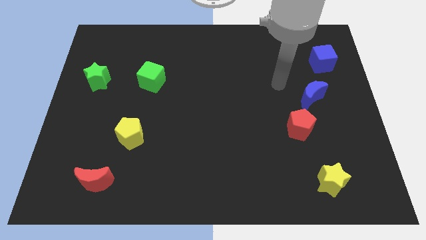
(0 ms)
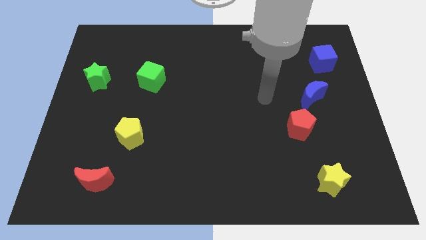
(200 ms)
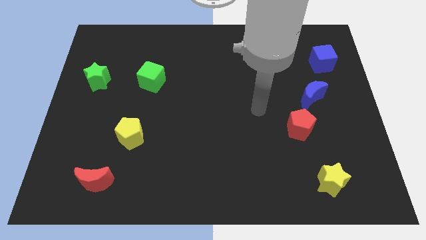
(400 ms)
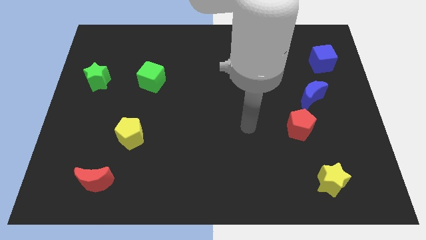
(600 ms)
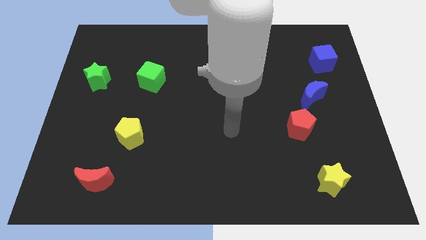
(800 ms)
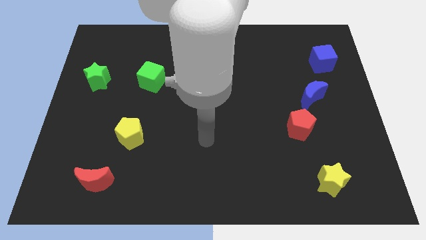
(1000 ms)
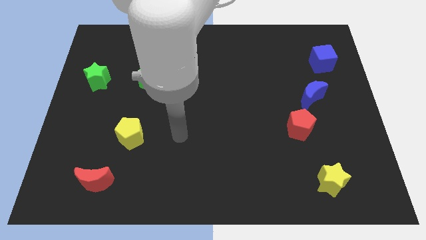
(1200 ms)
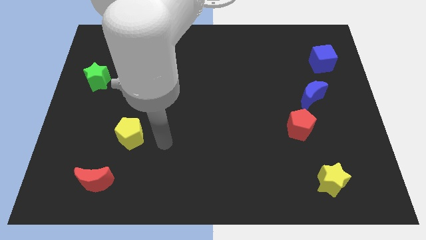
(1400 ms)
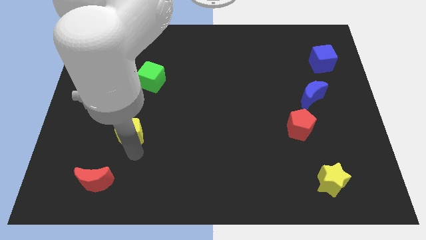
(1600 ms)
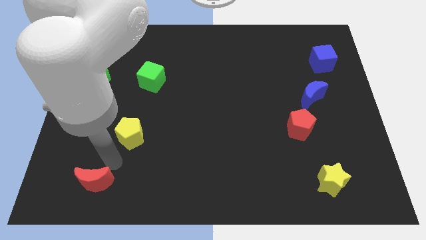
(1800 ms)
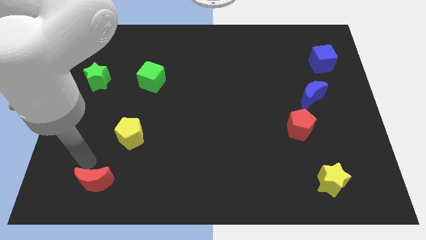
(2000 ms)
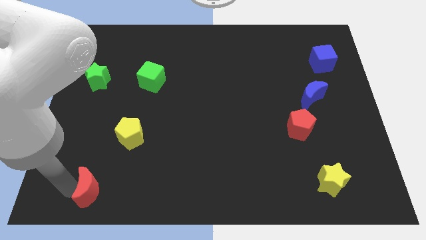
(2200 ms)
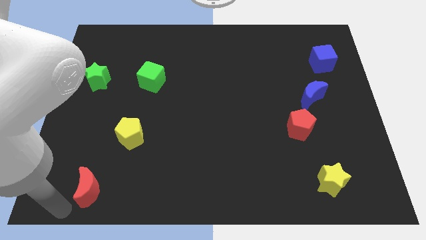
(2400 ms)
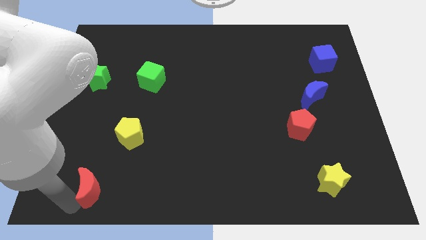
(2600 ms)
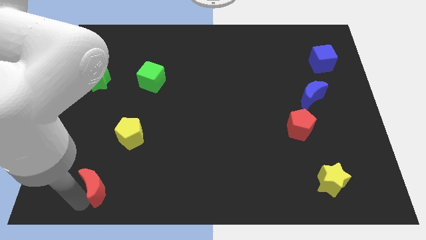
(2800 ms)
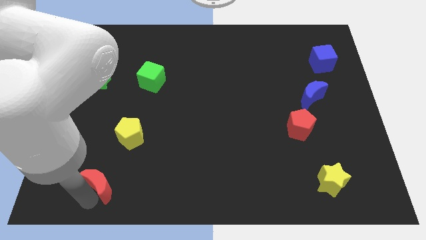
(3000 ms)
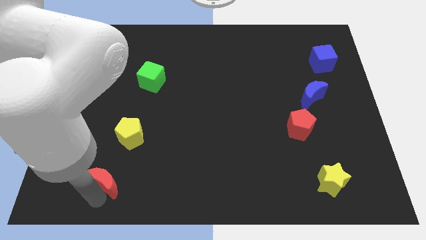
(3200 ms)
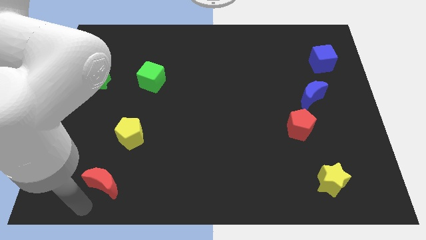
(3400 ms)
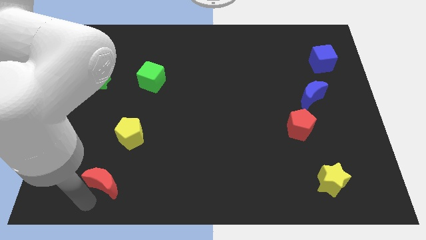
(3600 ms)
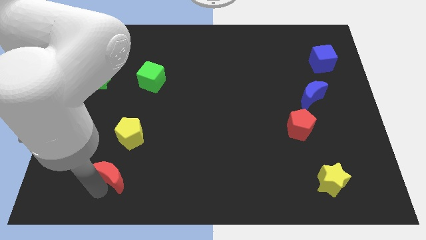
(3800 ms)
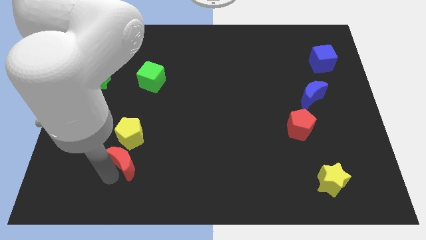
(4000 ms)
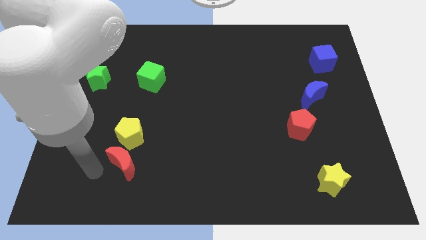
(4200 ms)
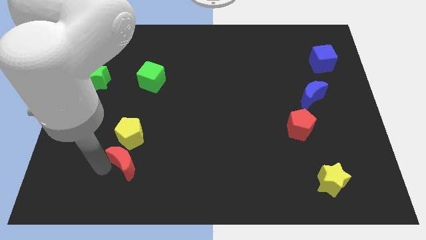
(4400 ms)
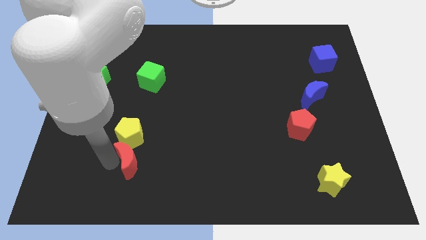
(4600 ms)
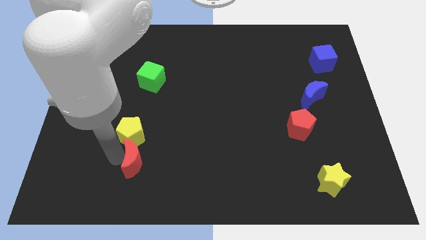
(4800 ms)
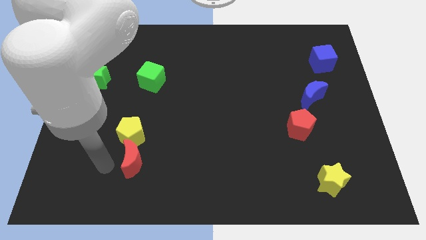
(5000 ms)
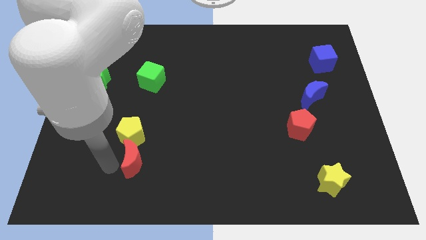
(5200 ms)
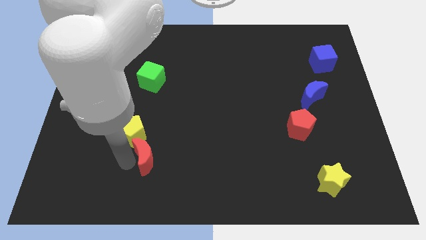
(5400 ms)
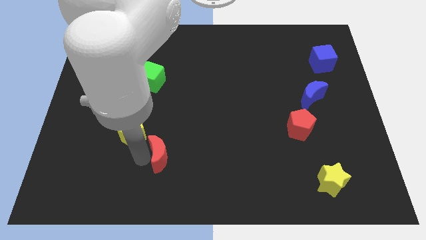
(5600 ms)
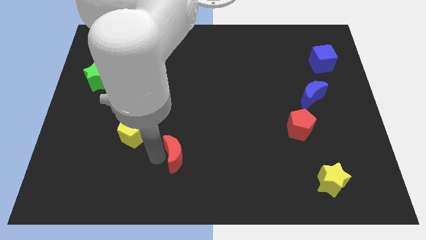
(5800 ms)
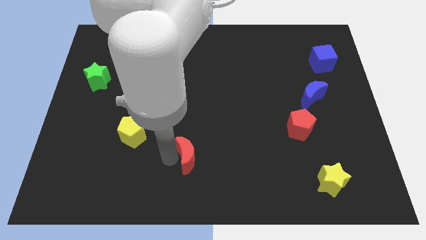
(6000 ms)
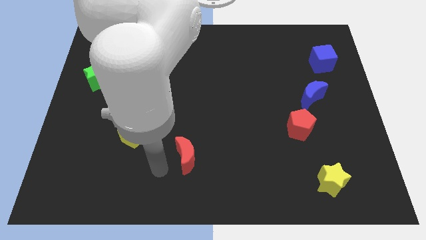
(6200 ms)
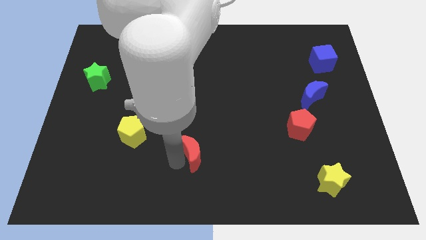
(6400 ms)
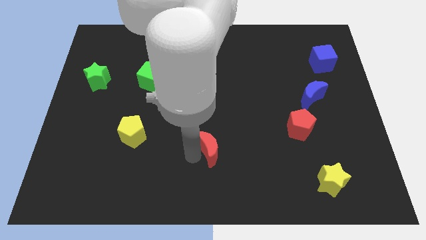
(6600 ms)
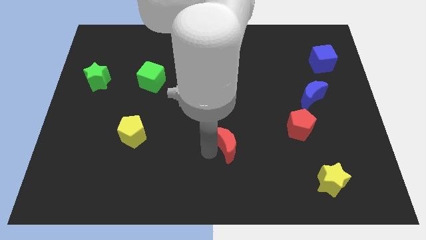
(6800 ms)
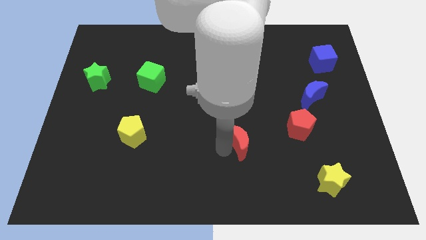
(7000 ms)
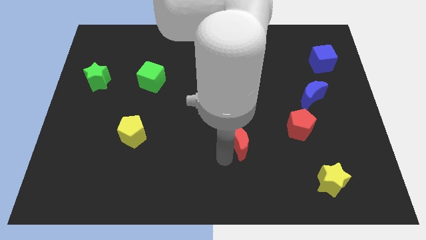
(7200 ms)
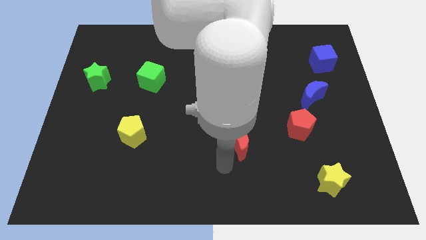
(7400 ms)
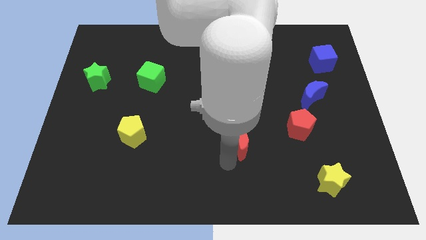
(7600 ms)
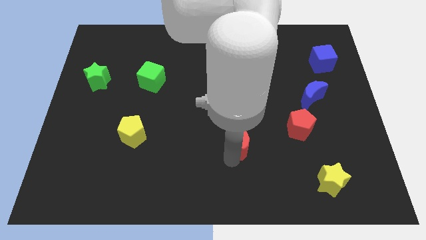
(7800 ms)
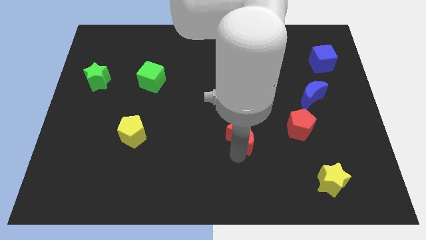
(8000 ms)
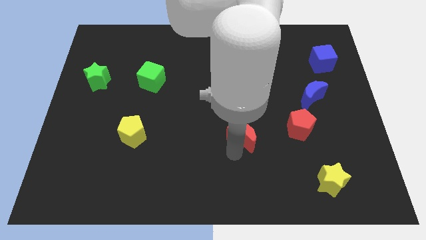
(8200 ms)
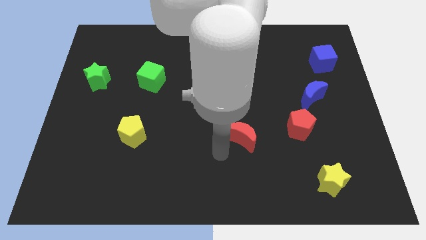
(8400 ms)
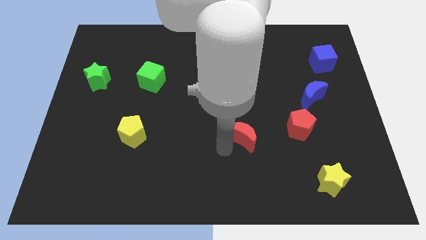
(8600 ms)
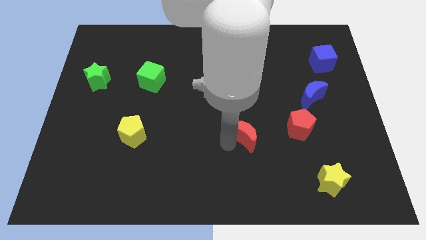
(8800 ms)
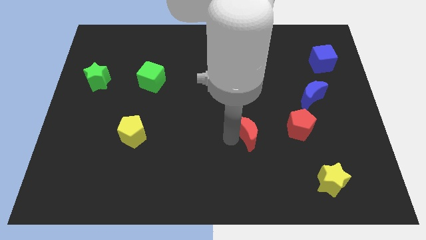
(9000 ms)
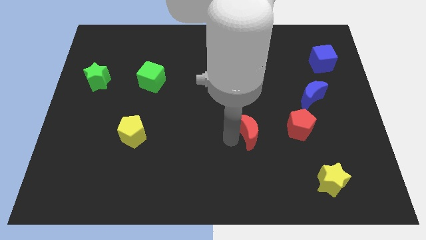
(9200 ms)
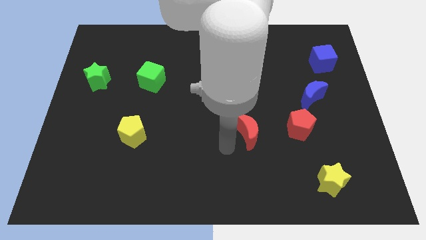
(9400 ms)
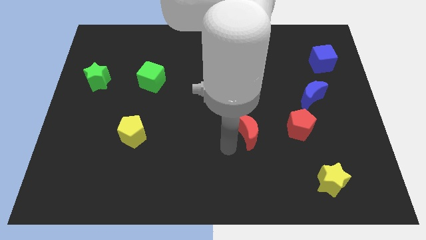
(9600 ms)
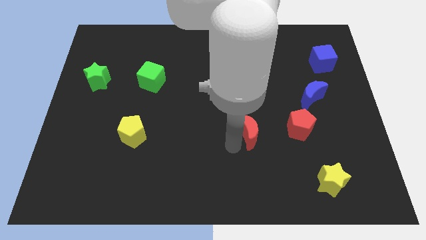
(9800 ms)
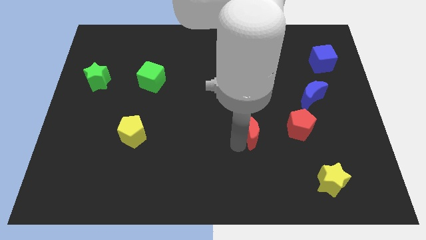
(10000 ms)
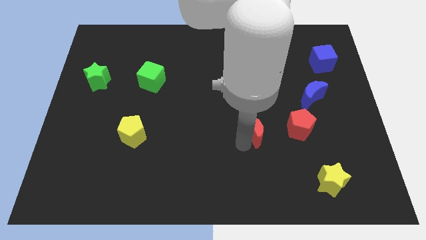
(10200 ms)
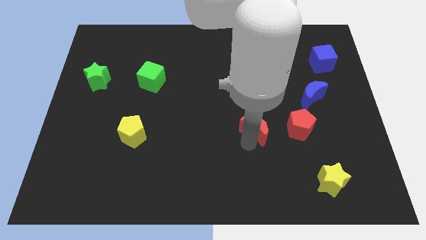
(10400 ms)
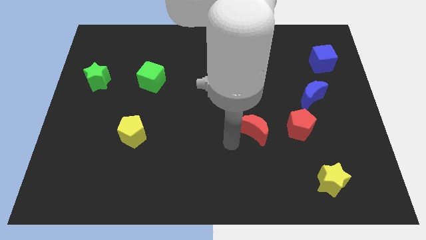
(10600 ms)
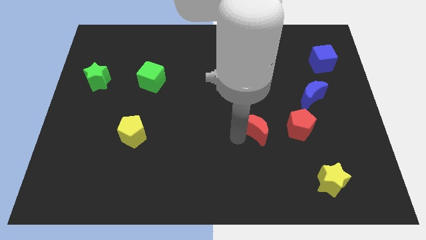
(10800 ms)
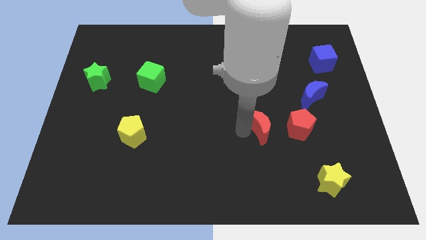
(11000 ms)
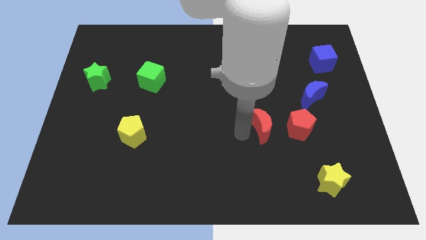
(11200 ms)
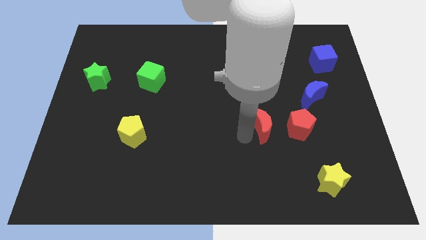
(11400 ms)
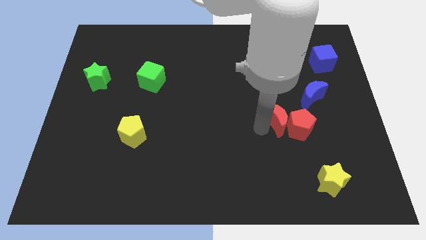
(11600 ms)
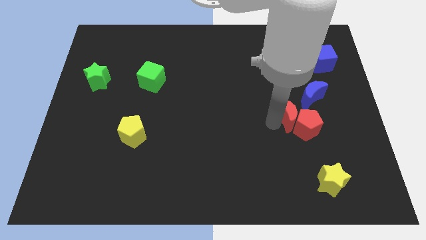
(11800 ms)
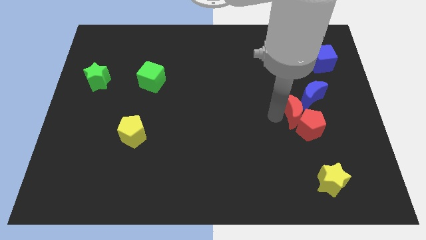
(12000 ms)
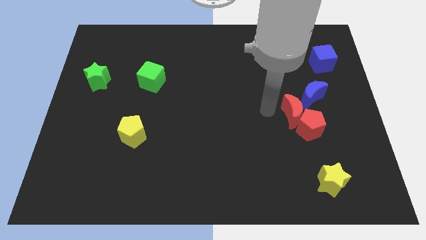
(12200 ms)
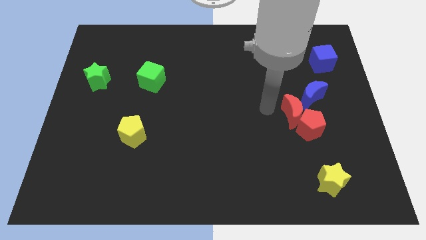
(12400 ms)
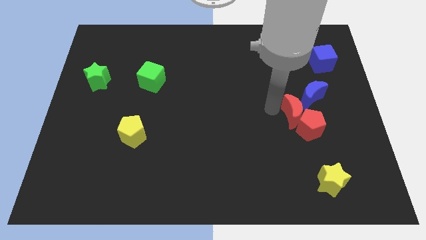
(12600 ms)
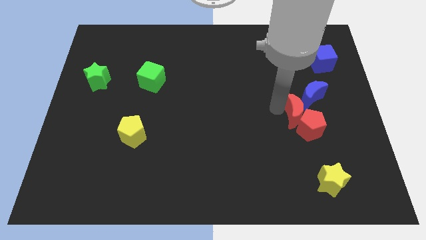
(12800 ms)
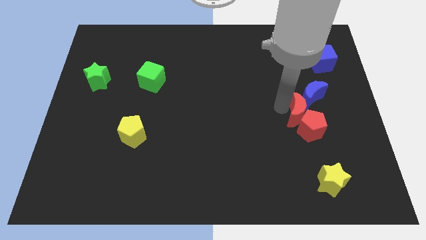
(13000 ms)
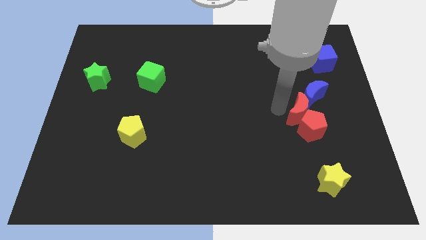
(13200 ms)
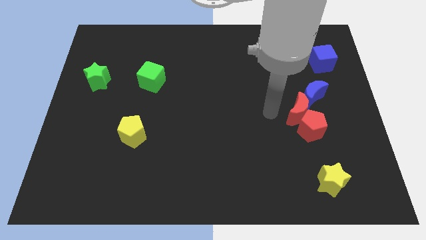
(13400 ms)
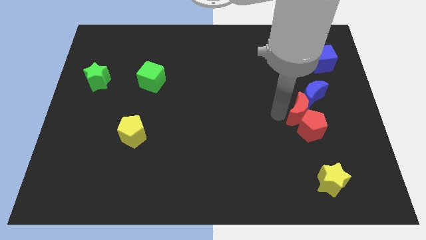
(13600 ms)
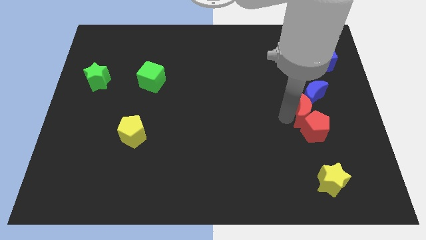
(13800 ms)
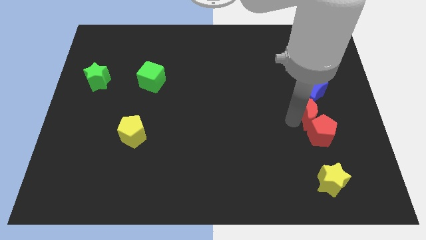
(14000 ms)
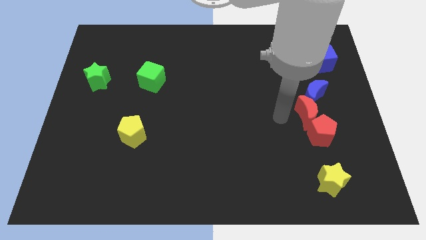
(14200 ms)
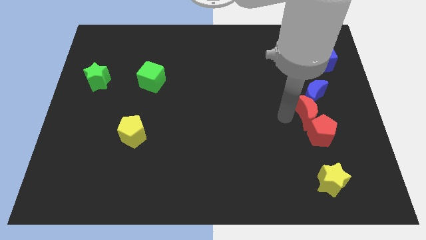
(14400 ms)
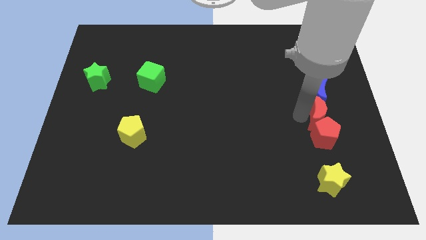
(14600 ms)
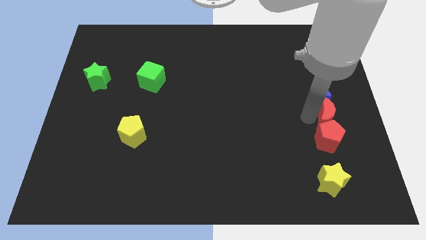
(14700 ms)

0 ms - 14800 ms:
move the red moon to the bottom right side of the blue moon
